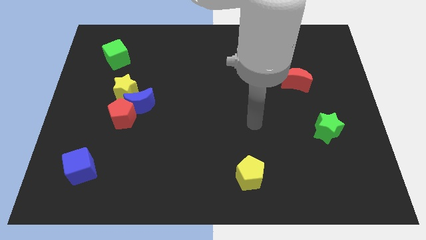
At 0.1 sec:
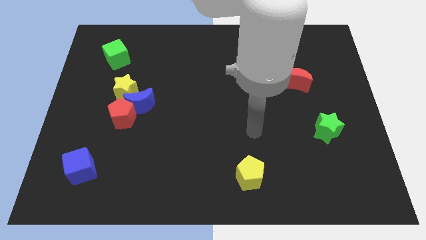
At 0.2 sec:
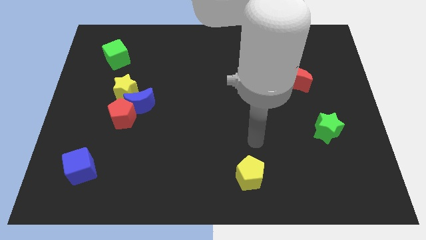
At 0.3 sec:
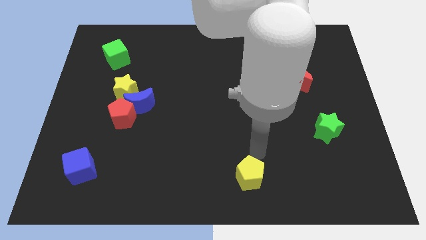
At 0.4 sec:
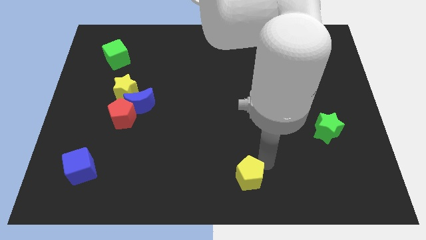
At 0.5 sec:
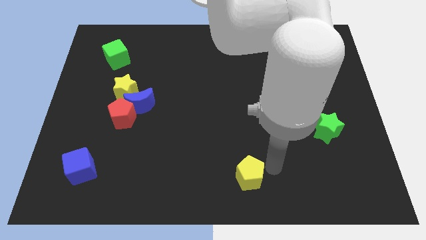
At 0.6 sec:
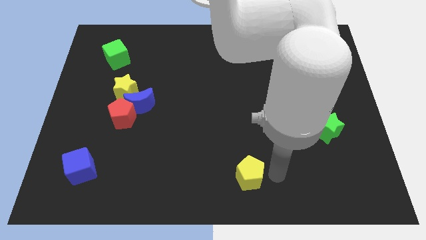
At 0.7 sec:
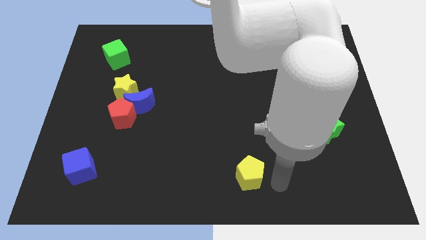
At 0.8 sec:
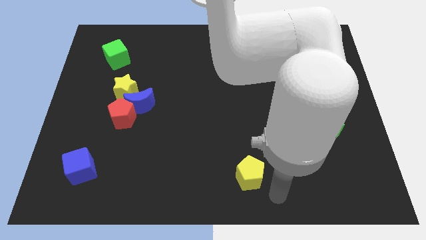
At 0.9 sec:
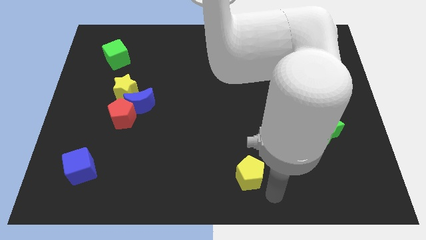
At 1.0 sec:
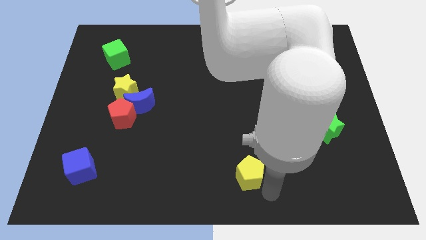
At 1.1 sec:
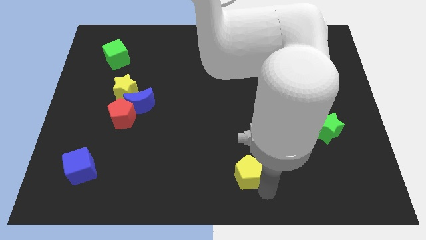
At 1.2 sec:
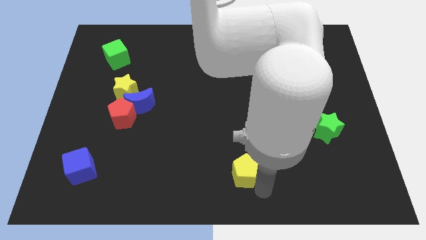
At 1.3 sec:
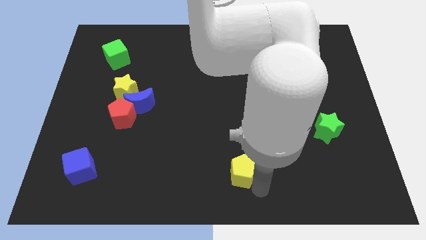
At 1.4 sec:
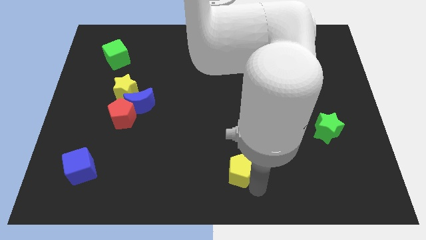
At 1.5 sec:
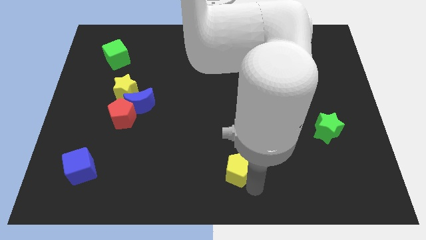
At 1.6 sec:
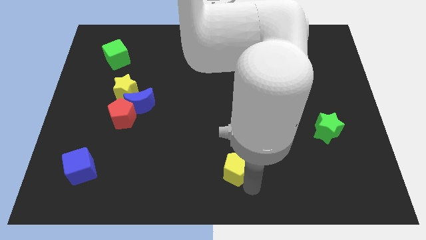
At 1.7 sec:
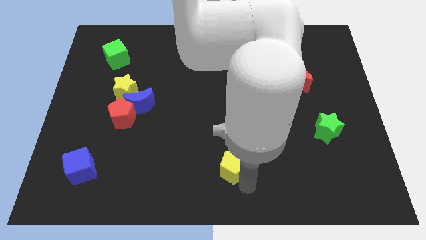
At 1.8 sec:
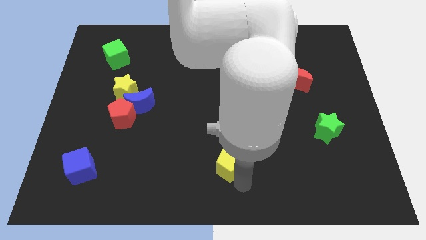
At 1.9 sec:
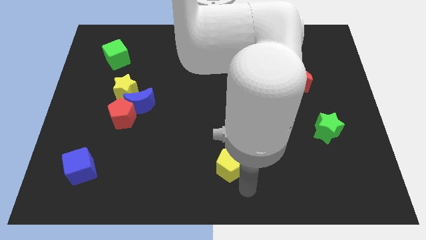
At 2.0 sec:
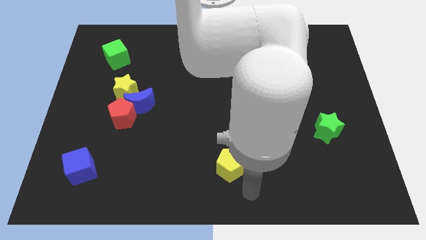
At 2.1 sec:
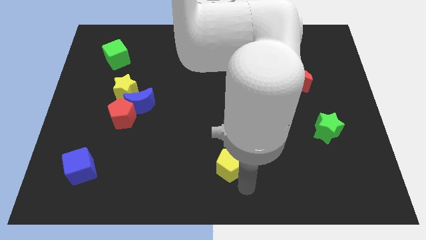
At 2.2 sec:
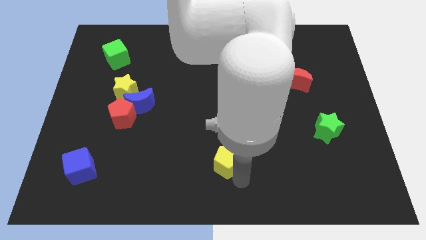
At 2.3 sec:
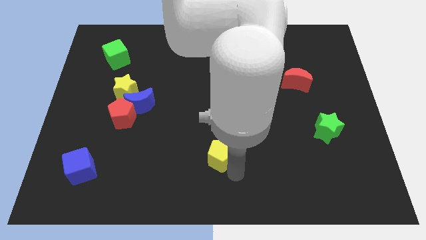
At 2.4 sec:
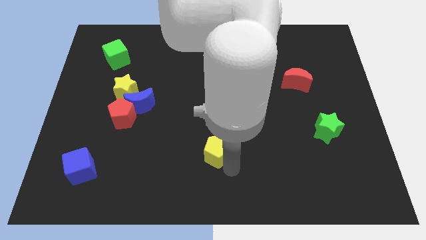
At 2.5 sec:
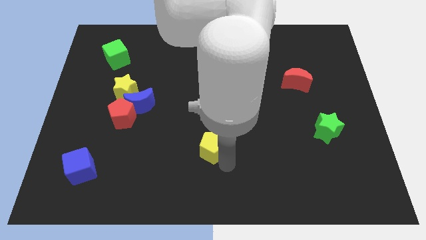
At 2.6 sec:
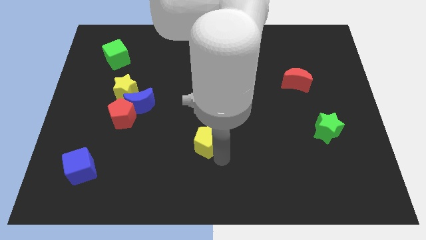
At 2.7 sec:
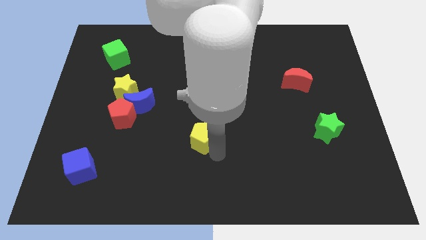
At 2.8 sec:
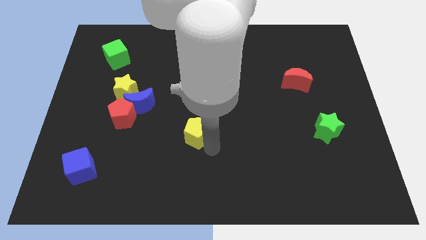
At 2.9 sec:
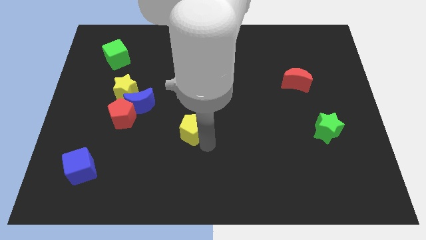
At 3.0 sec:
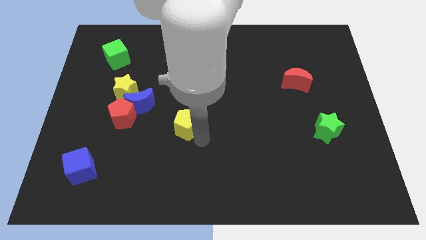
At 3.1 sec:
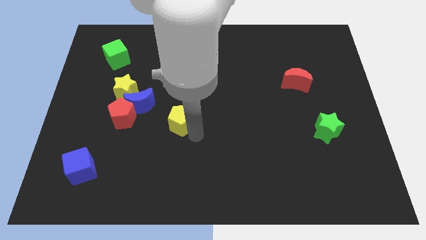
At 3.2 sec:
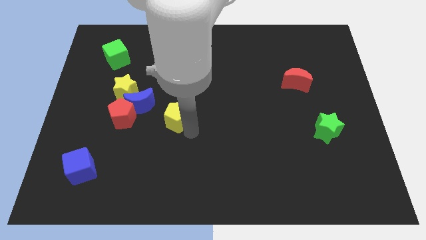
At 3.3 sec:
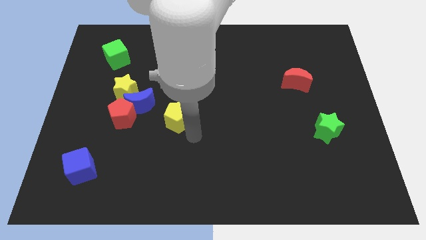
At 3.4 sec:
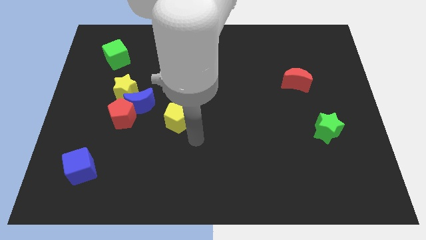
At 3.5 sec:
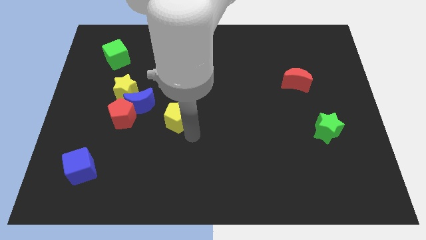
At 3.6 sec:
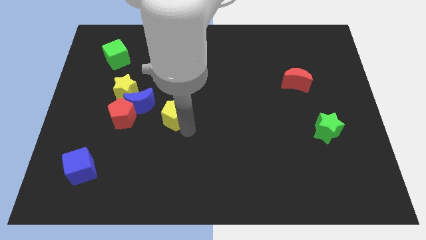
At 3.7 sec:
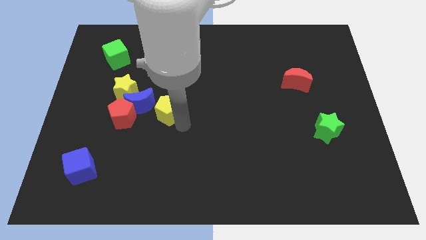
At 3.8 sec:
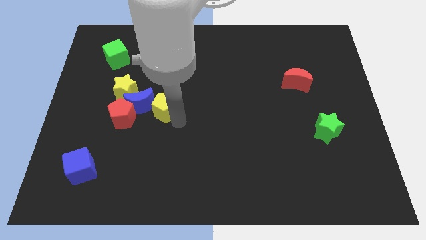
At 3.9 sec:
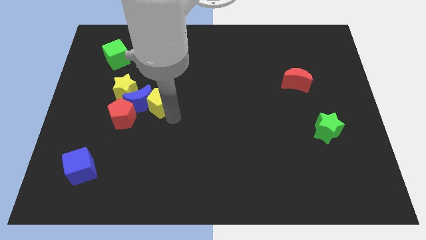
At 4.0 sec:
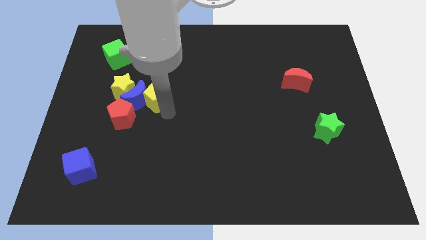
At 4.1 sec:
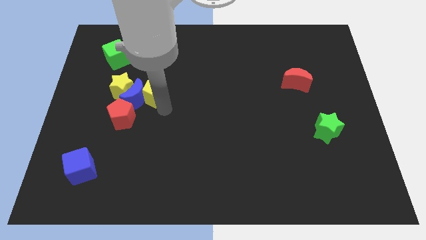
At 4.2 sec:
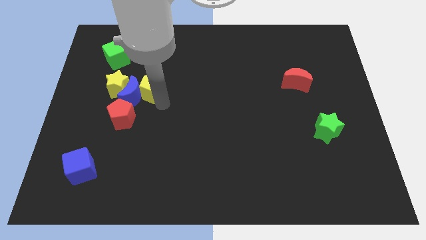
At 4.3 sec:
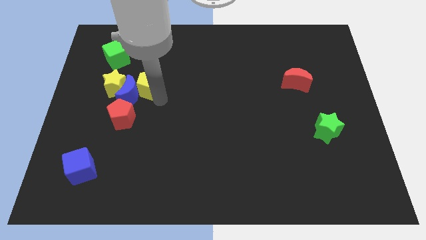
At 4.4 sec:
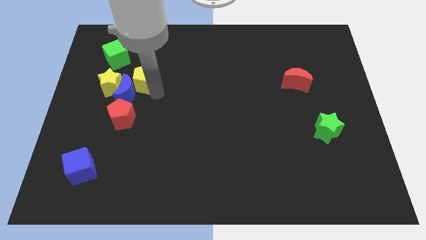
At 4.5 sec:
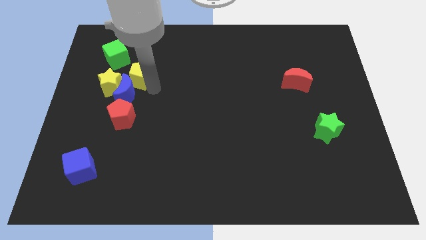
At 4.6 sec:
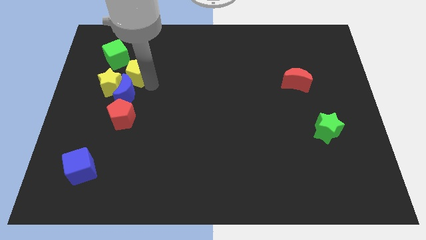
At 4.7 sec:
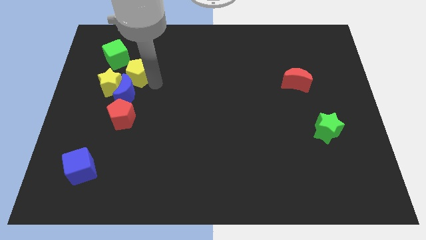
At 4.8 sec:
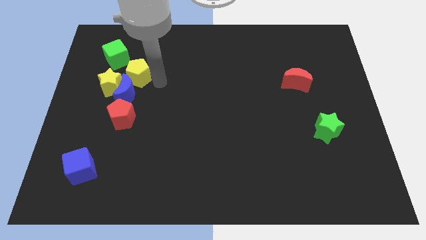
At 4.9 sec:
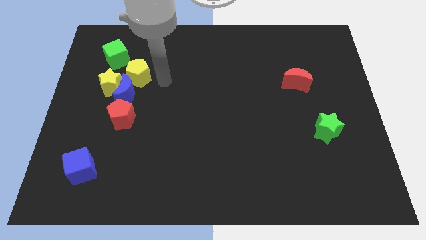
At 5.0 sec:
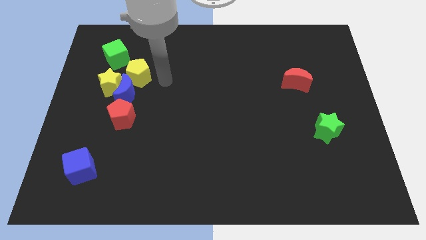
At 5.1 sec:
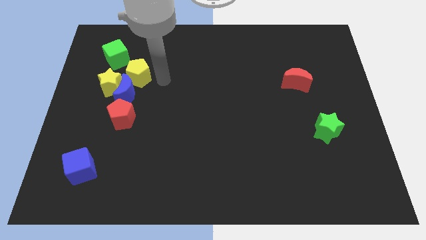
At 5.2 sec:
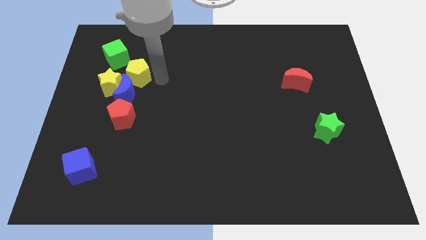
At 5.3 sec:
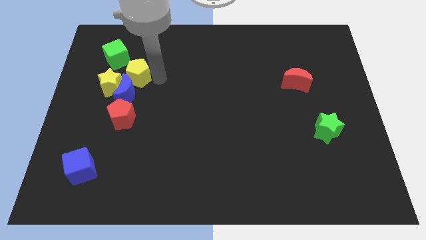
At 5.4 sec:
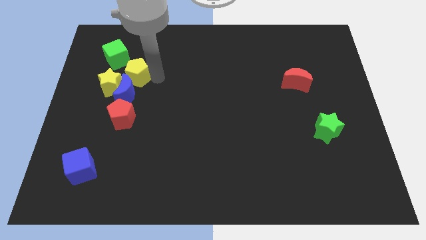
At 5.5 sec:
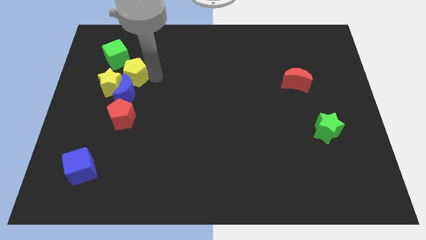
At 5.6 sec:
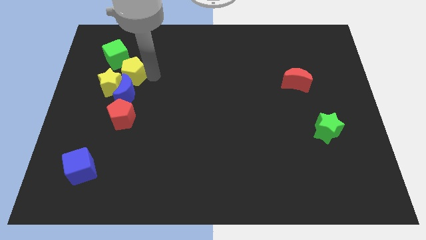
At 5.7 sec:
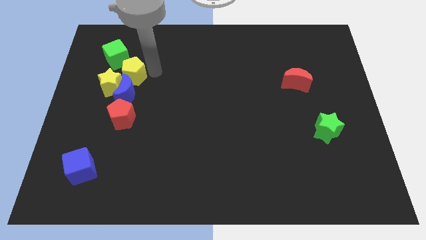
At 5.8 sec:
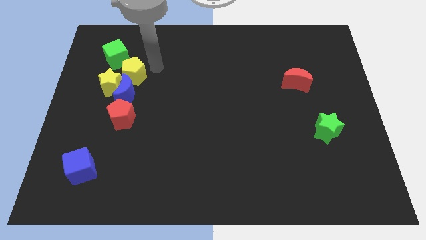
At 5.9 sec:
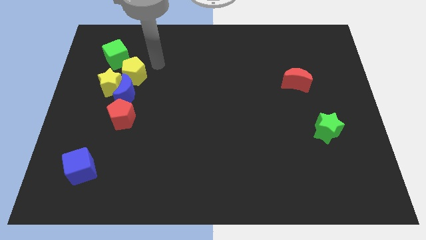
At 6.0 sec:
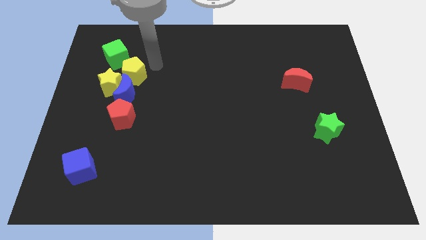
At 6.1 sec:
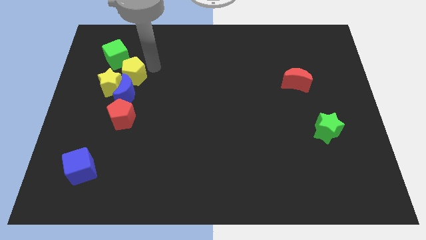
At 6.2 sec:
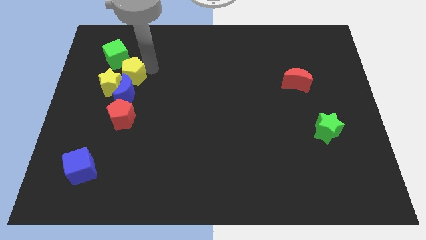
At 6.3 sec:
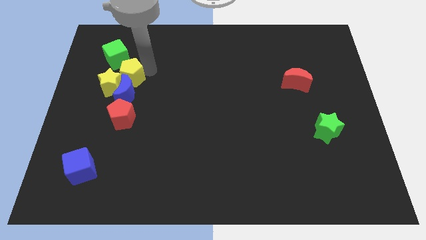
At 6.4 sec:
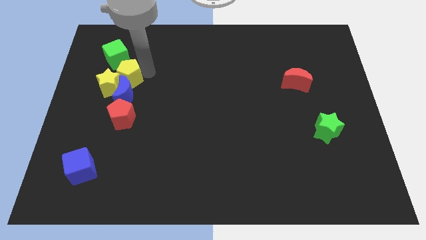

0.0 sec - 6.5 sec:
push the yellow pentagon to the bottom of the green cube
